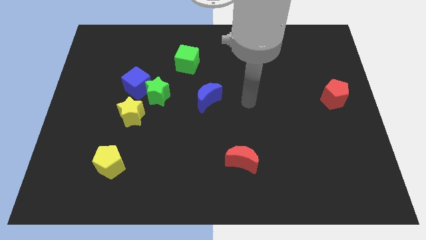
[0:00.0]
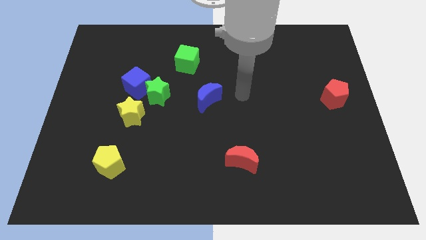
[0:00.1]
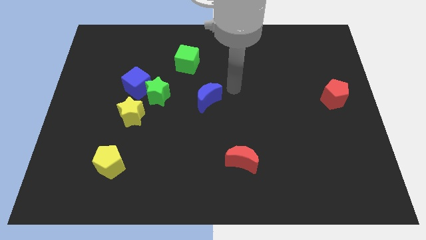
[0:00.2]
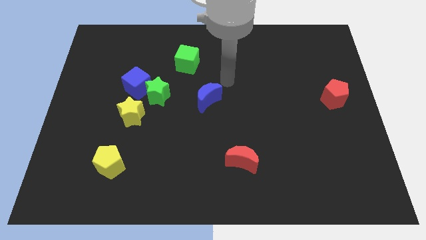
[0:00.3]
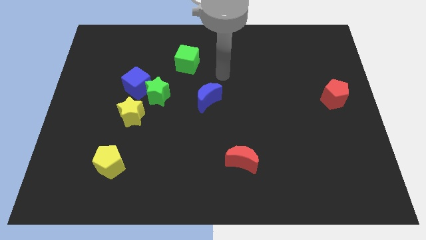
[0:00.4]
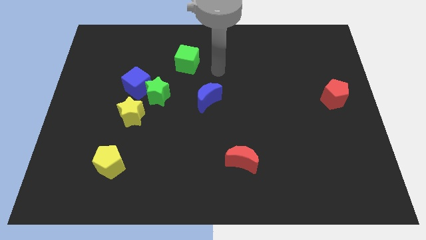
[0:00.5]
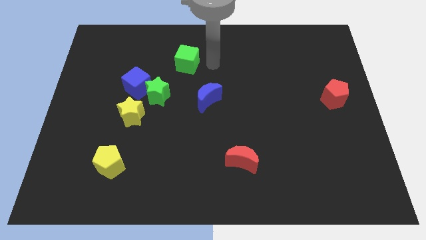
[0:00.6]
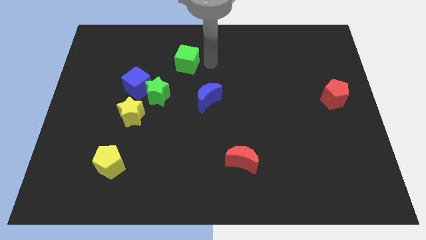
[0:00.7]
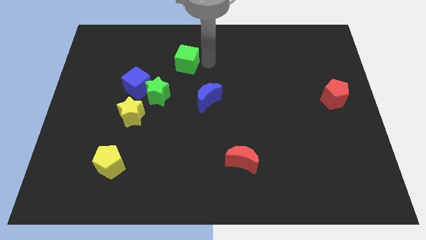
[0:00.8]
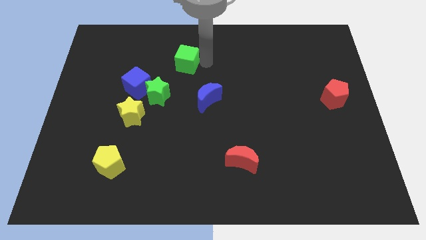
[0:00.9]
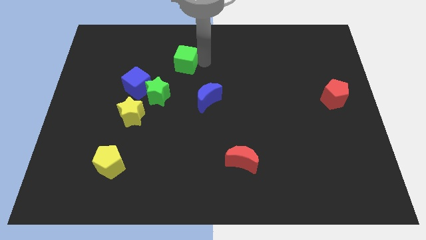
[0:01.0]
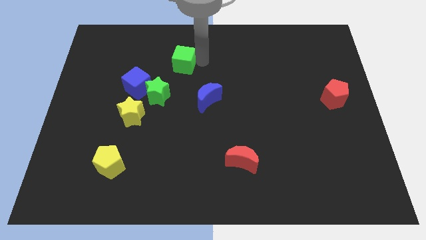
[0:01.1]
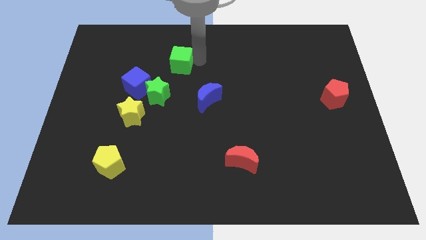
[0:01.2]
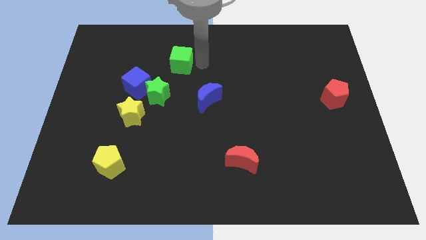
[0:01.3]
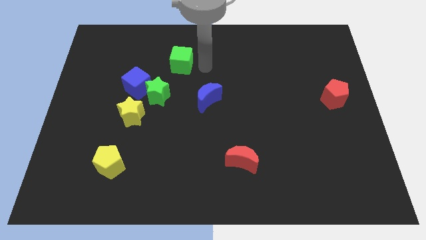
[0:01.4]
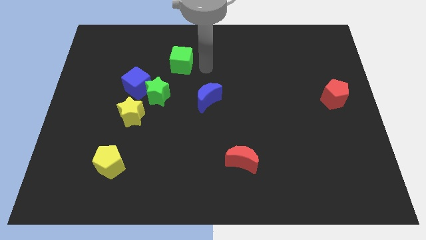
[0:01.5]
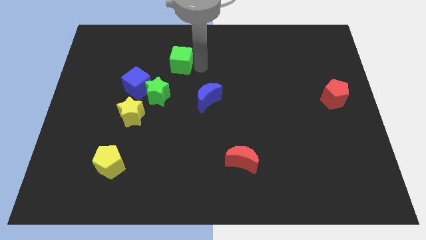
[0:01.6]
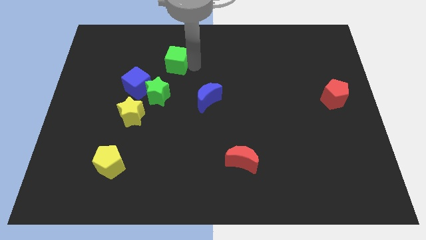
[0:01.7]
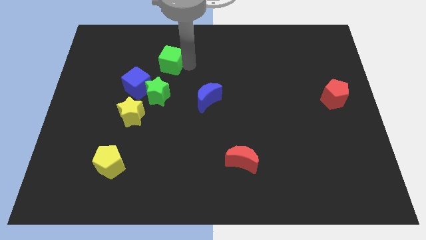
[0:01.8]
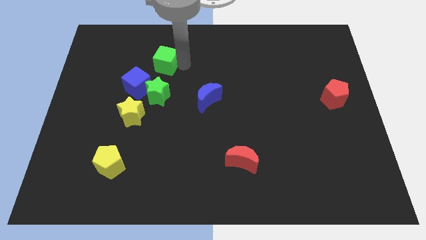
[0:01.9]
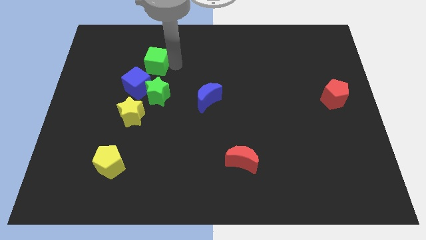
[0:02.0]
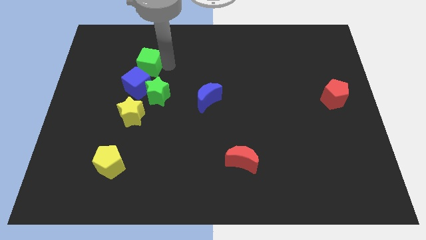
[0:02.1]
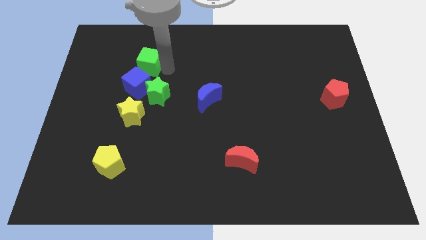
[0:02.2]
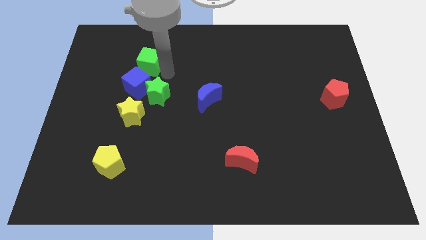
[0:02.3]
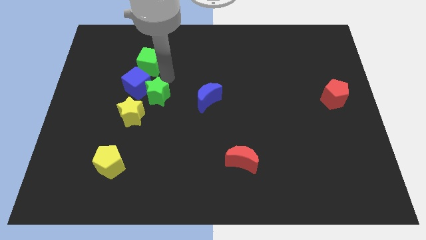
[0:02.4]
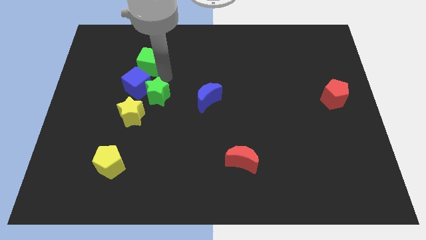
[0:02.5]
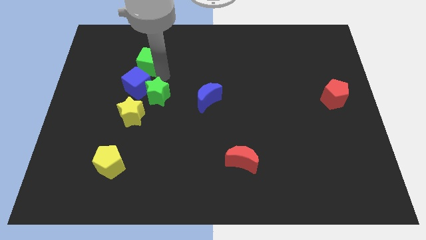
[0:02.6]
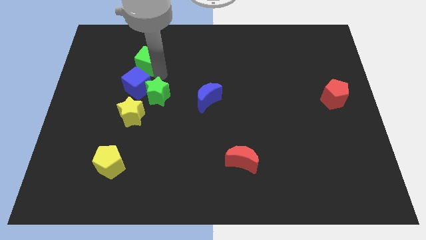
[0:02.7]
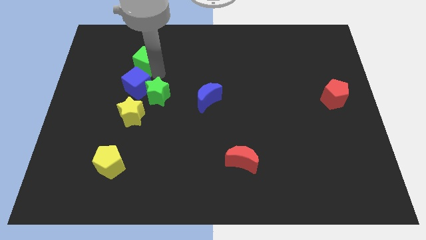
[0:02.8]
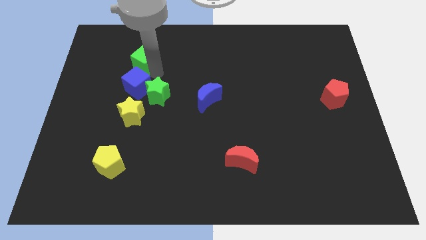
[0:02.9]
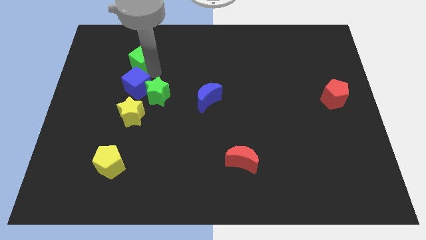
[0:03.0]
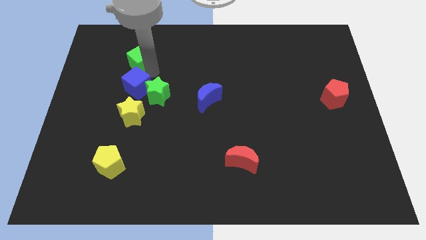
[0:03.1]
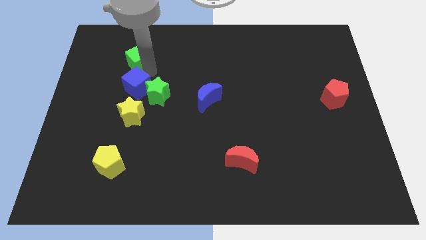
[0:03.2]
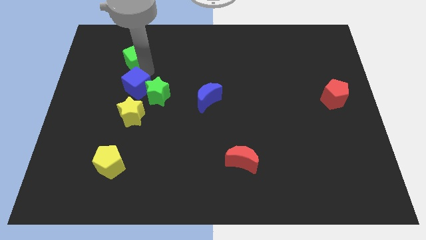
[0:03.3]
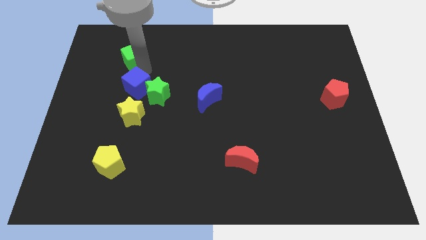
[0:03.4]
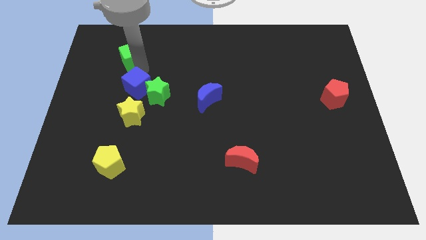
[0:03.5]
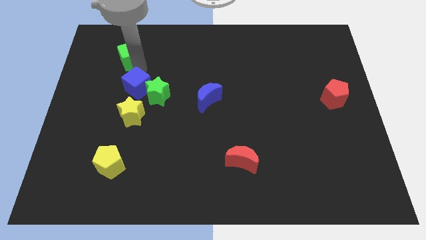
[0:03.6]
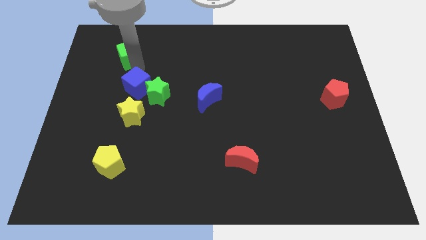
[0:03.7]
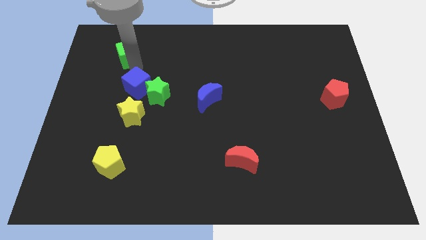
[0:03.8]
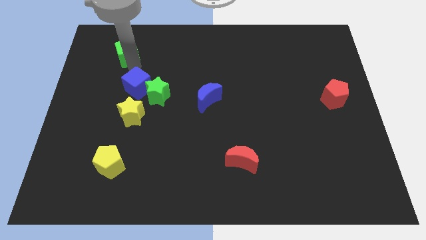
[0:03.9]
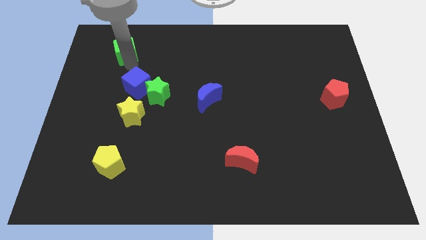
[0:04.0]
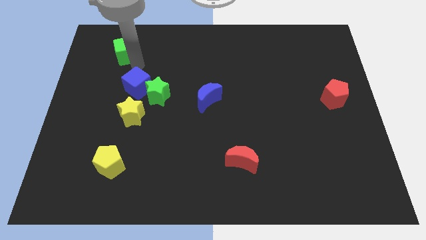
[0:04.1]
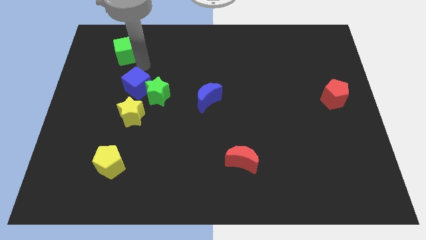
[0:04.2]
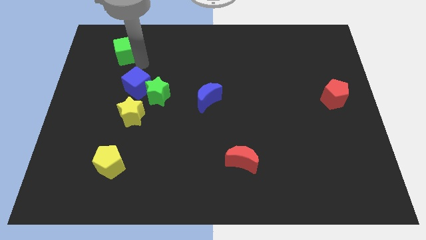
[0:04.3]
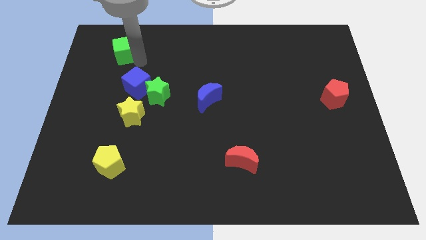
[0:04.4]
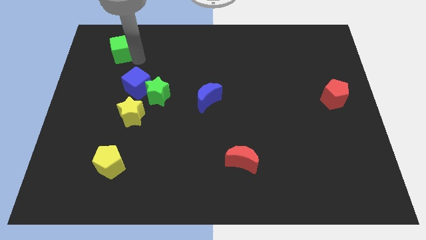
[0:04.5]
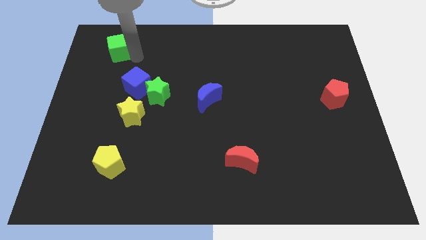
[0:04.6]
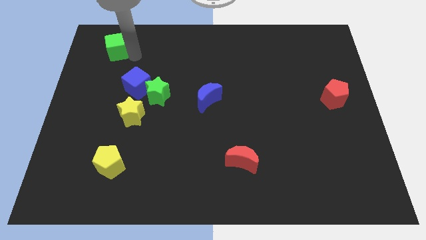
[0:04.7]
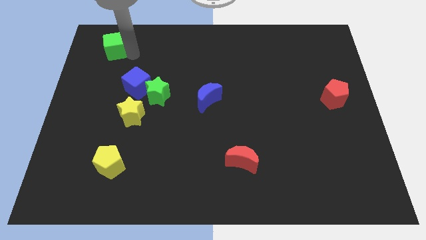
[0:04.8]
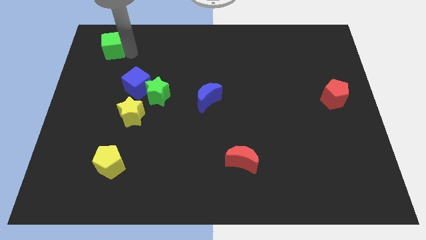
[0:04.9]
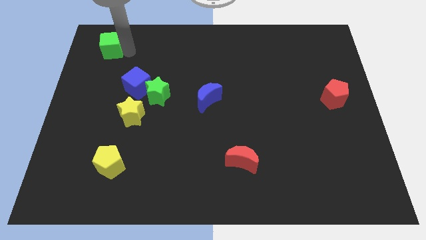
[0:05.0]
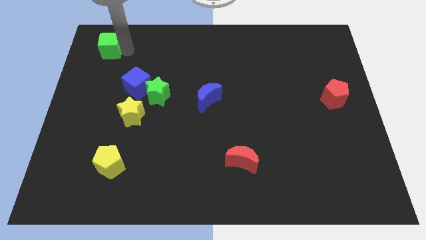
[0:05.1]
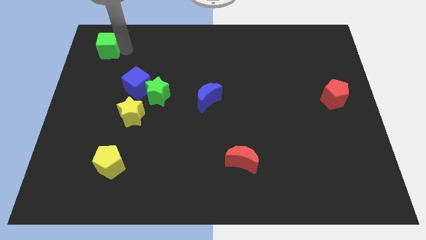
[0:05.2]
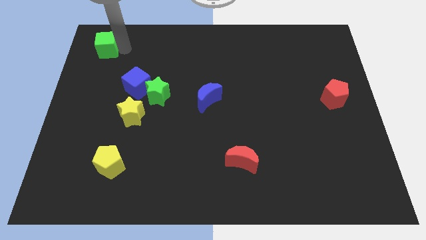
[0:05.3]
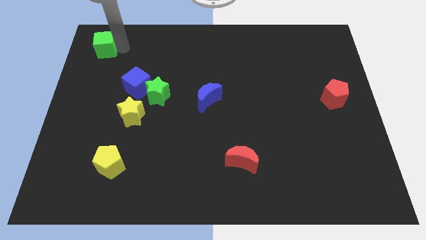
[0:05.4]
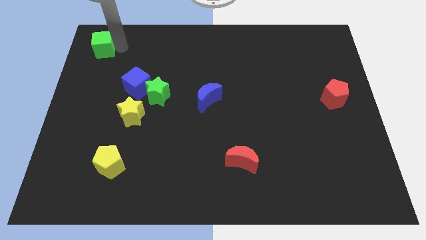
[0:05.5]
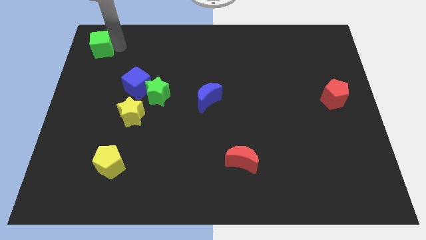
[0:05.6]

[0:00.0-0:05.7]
put the green cube to the top left

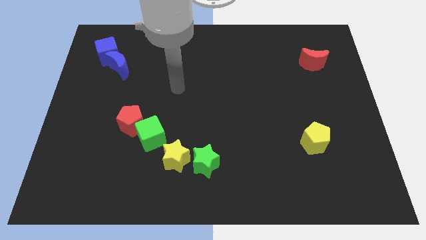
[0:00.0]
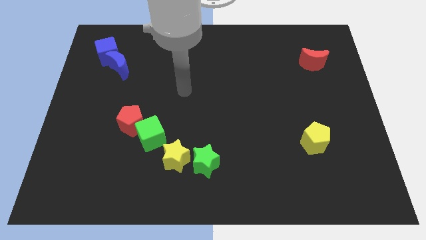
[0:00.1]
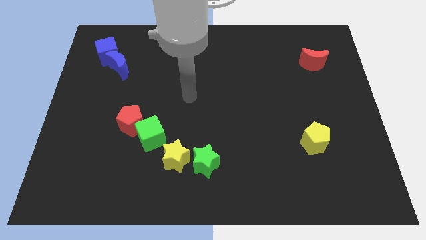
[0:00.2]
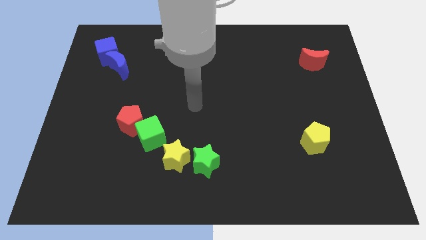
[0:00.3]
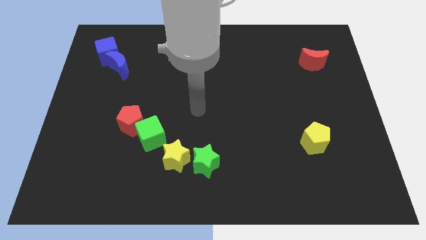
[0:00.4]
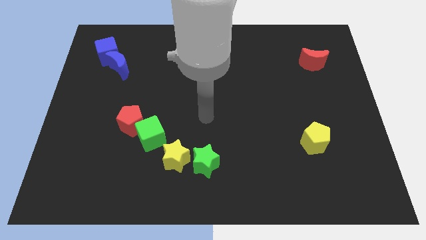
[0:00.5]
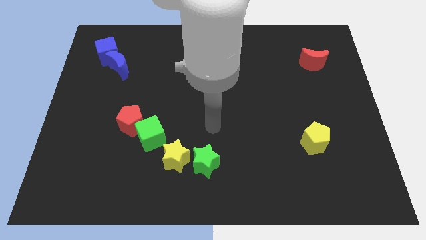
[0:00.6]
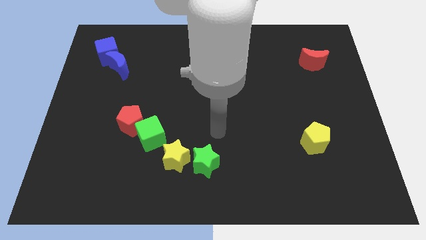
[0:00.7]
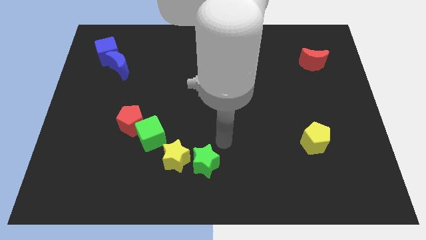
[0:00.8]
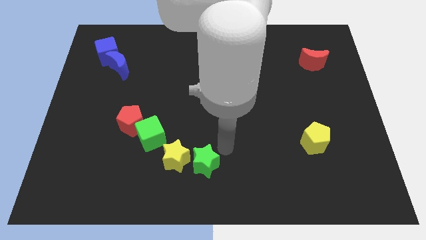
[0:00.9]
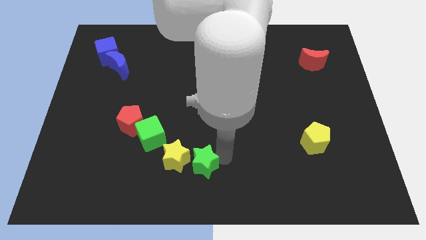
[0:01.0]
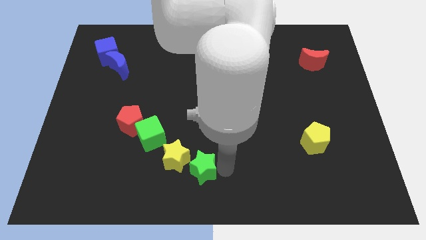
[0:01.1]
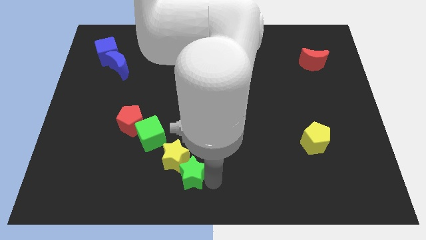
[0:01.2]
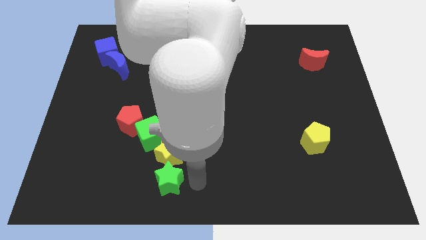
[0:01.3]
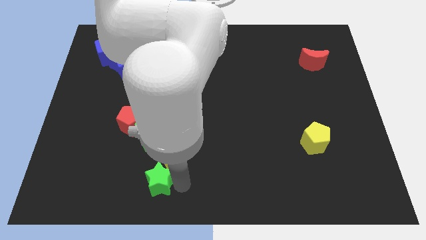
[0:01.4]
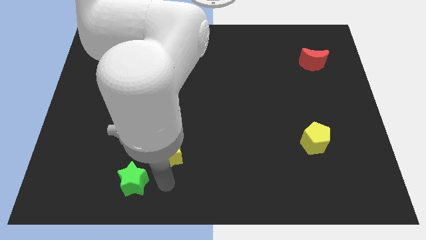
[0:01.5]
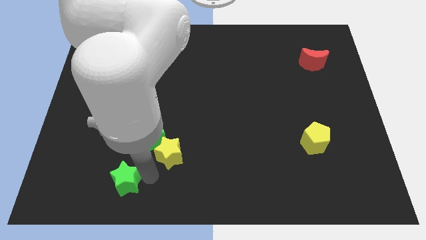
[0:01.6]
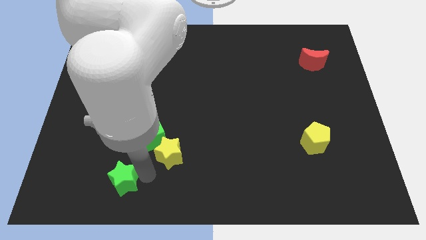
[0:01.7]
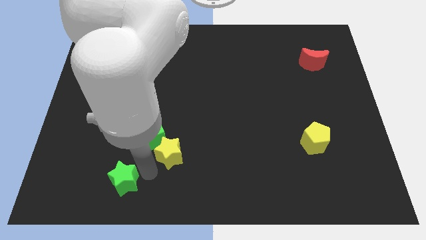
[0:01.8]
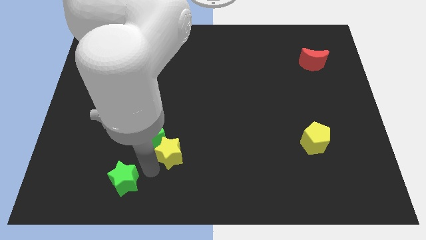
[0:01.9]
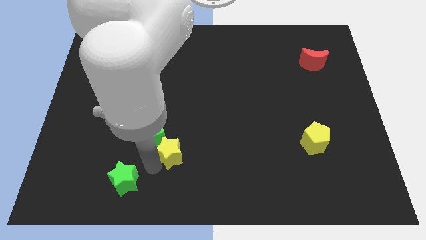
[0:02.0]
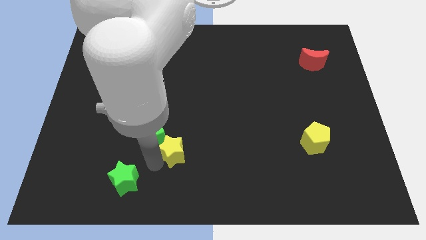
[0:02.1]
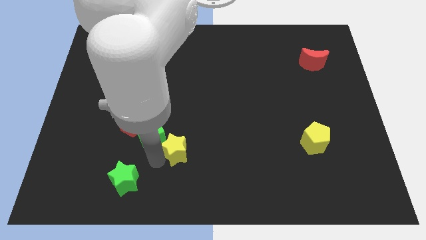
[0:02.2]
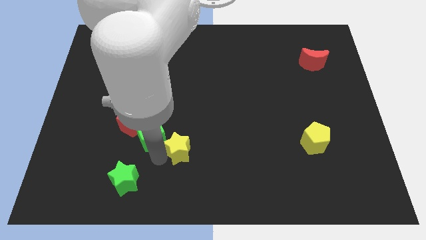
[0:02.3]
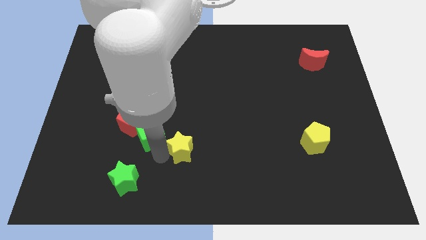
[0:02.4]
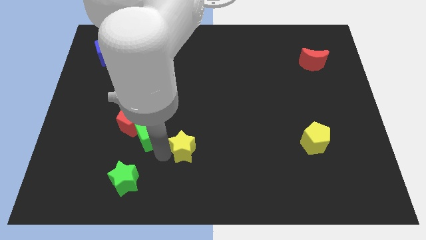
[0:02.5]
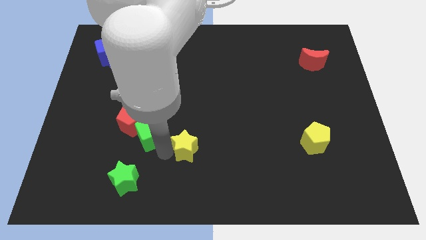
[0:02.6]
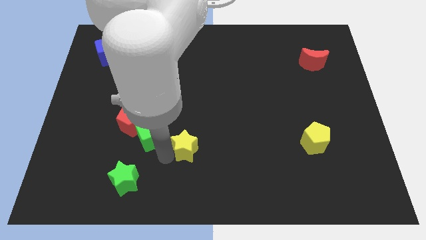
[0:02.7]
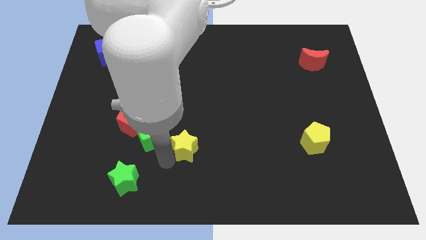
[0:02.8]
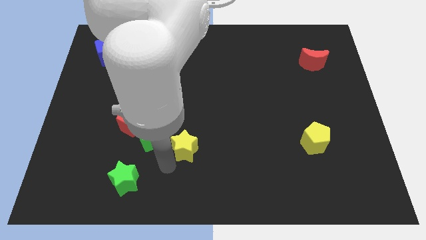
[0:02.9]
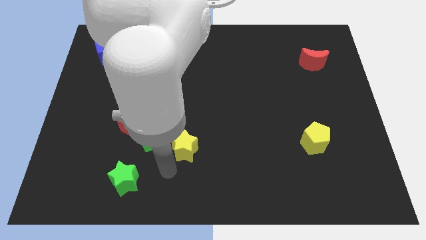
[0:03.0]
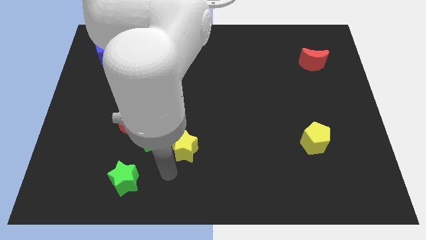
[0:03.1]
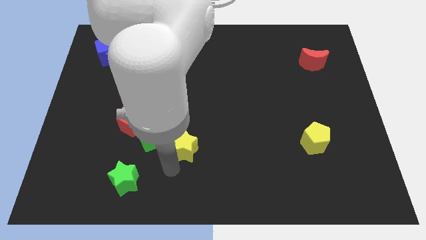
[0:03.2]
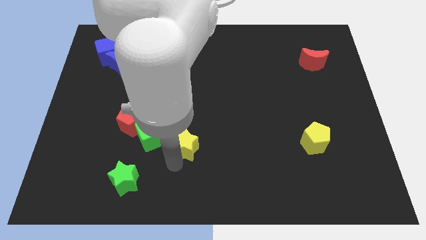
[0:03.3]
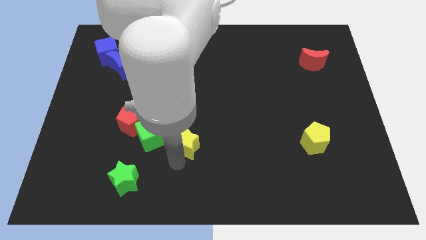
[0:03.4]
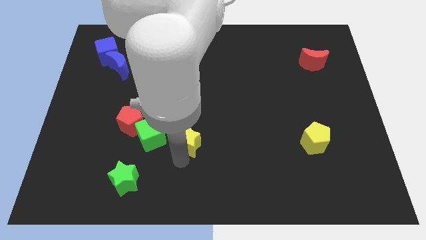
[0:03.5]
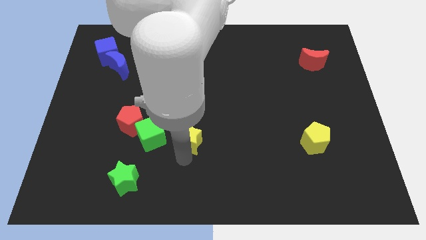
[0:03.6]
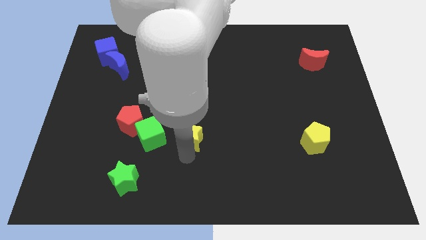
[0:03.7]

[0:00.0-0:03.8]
put the yellow star to the center of the board
